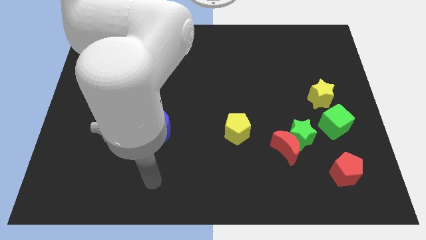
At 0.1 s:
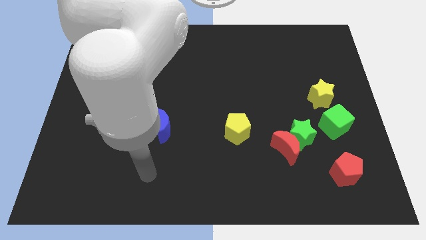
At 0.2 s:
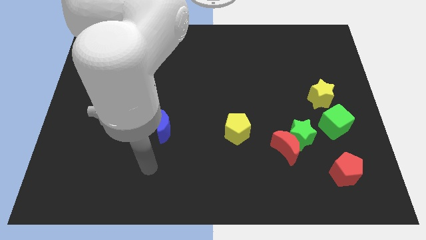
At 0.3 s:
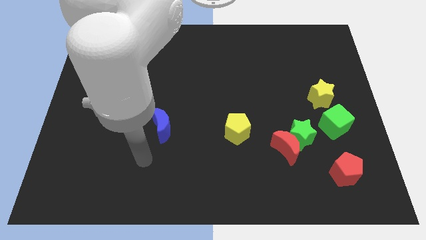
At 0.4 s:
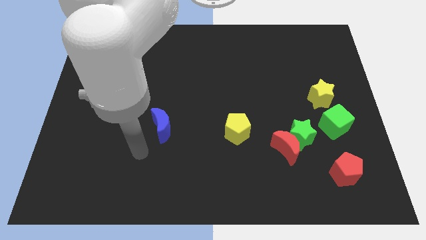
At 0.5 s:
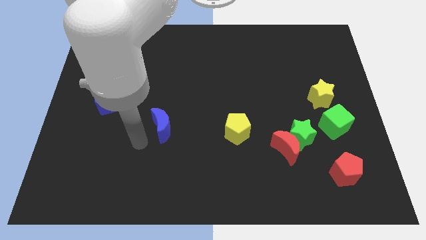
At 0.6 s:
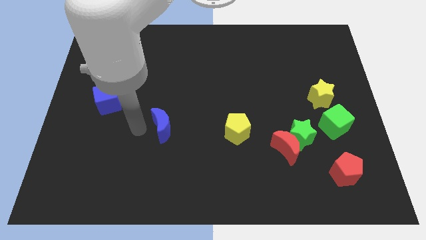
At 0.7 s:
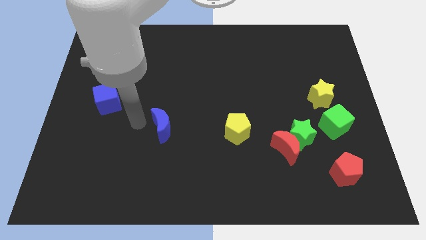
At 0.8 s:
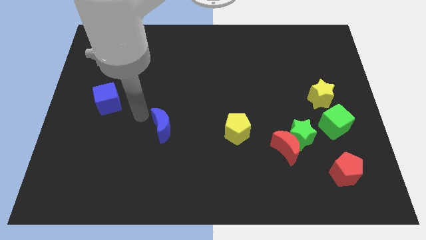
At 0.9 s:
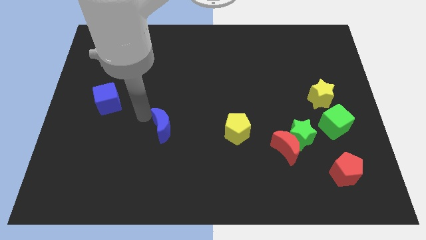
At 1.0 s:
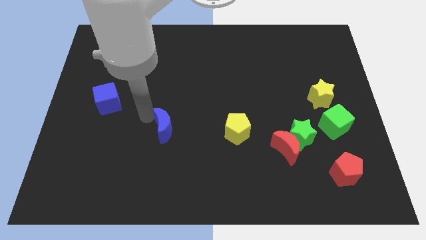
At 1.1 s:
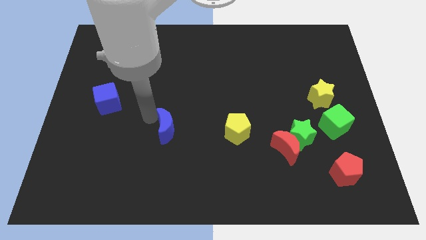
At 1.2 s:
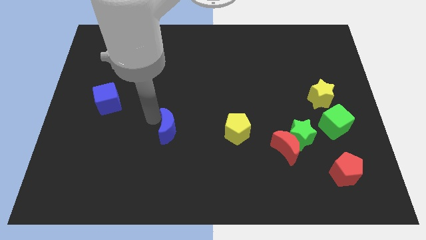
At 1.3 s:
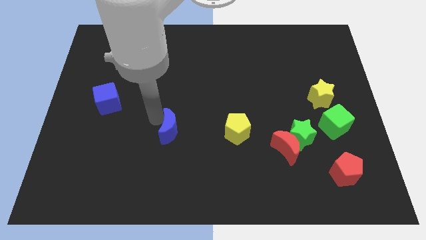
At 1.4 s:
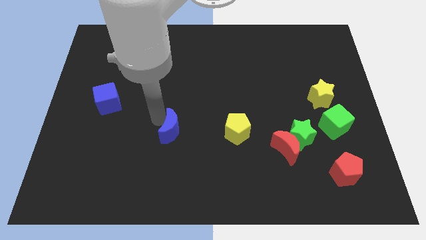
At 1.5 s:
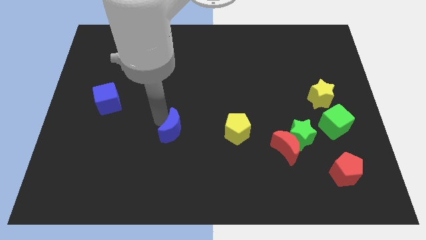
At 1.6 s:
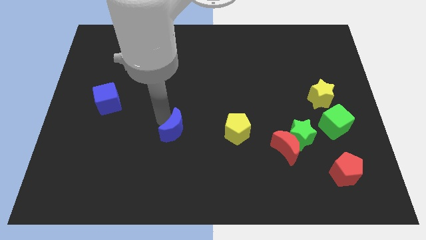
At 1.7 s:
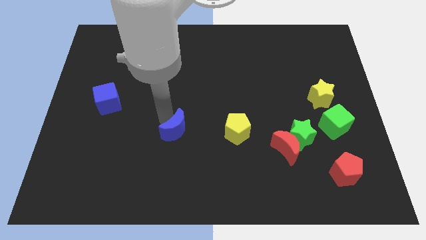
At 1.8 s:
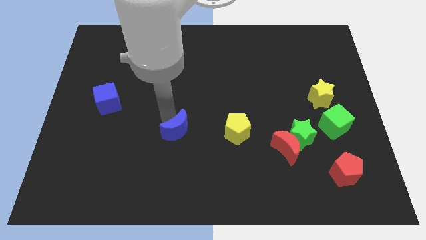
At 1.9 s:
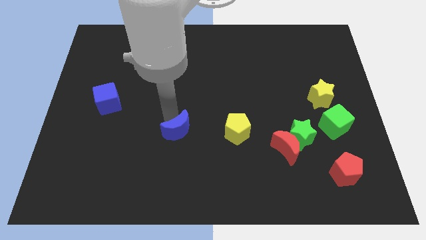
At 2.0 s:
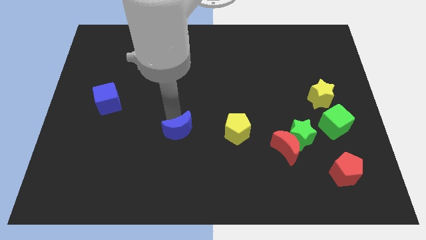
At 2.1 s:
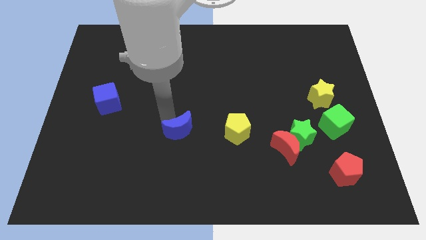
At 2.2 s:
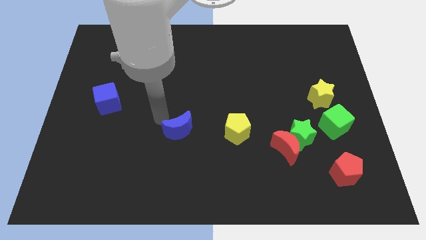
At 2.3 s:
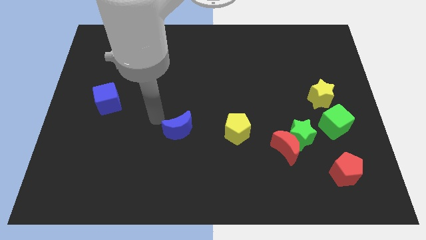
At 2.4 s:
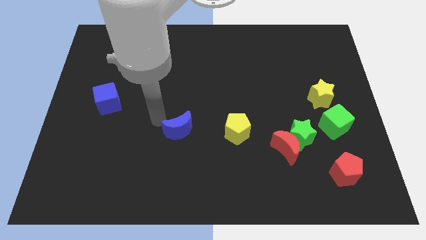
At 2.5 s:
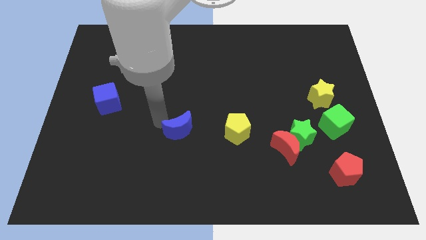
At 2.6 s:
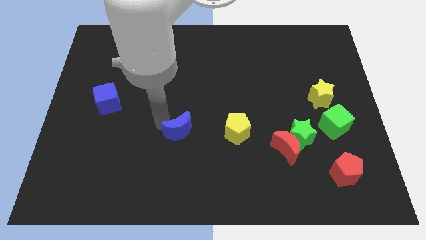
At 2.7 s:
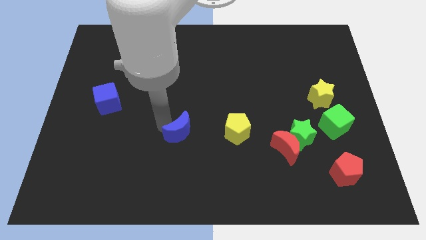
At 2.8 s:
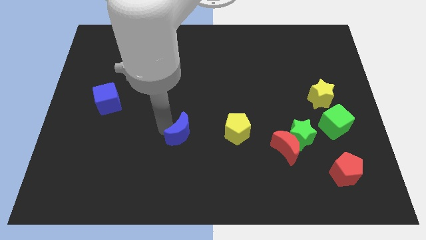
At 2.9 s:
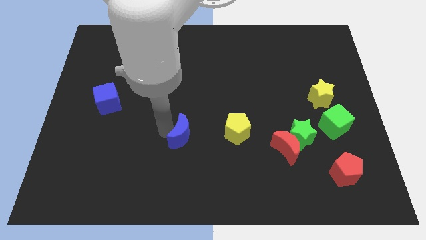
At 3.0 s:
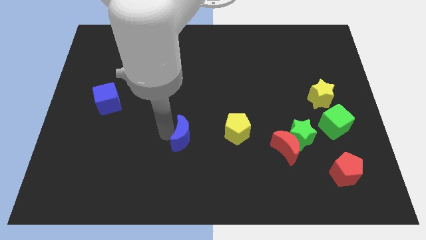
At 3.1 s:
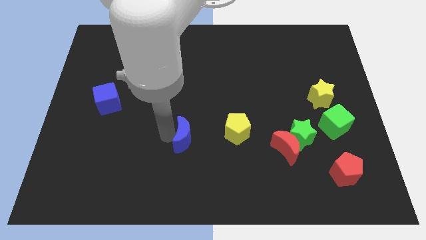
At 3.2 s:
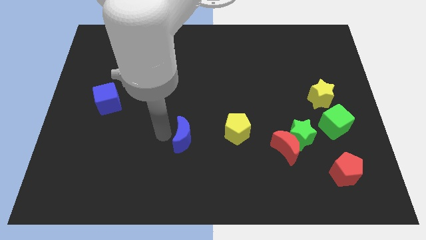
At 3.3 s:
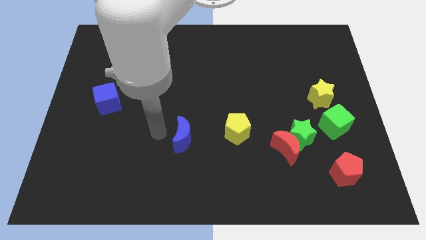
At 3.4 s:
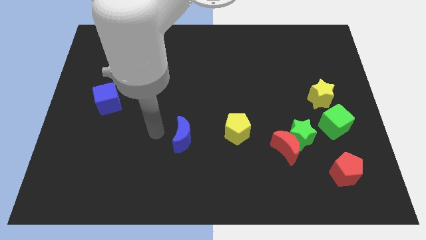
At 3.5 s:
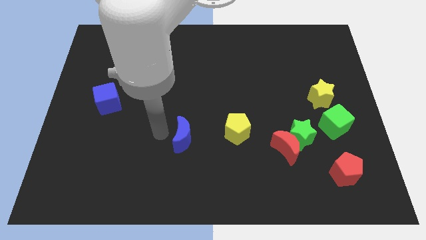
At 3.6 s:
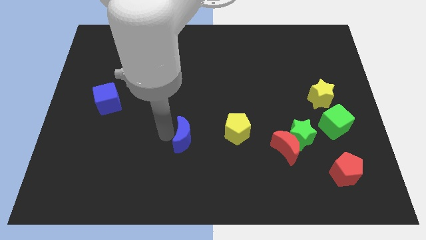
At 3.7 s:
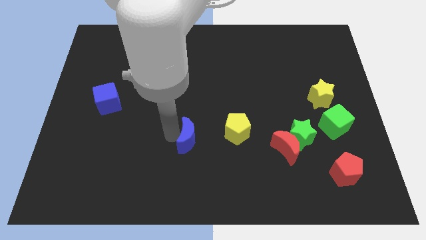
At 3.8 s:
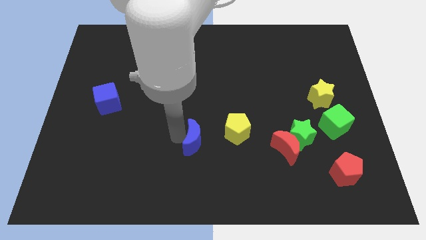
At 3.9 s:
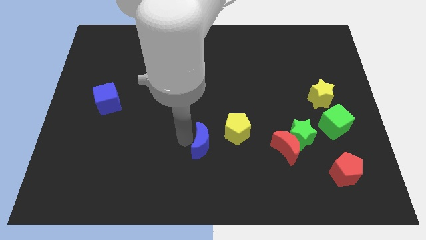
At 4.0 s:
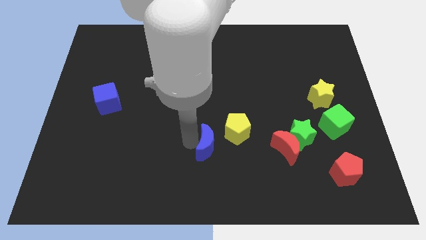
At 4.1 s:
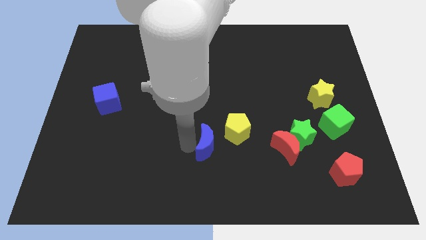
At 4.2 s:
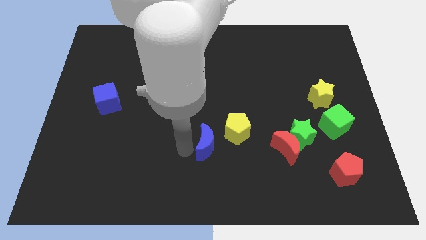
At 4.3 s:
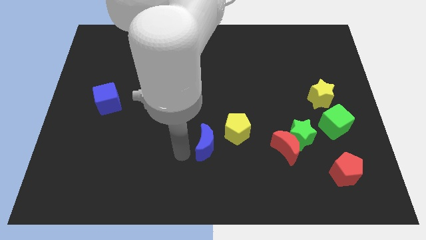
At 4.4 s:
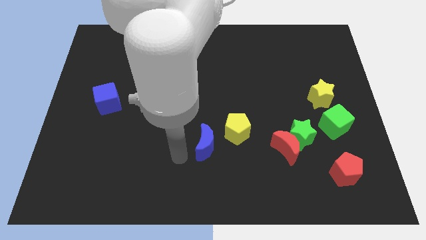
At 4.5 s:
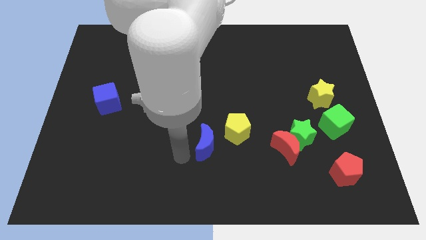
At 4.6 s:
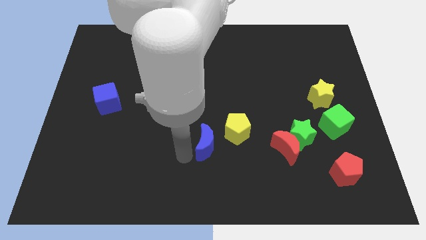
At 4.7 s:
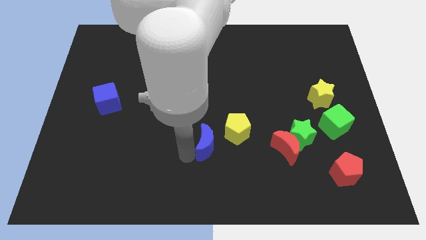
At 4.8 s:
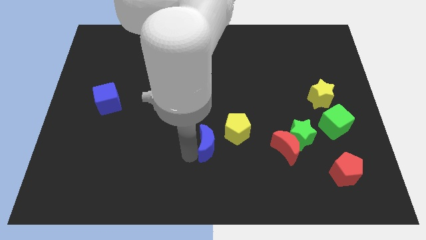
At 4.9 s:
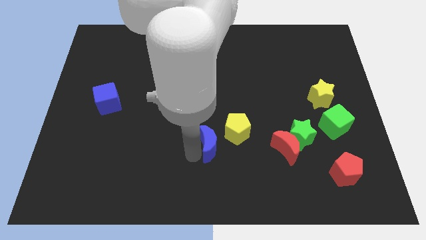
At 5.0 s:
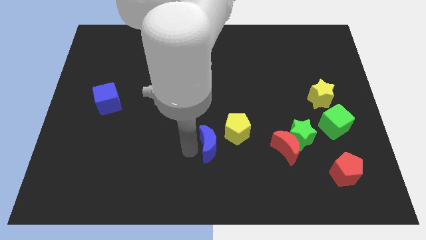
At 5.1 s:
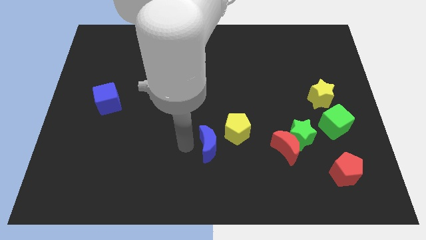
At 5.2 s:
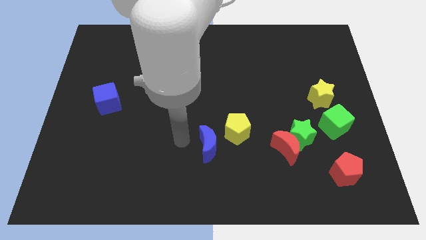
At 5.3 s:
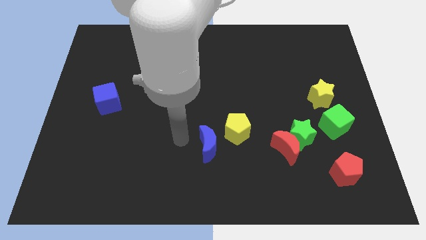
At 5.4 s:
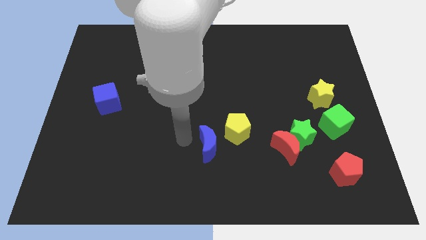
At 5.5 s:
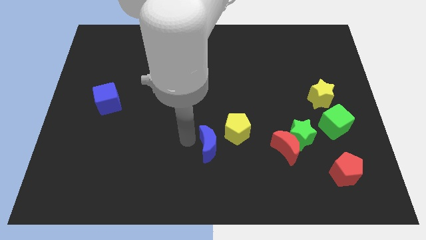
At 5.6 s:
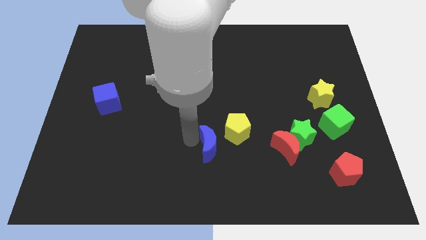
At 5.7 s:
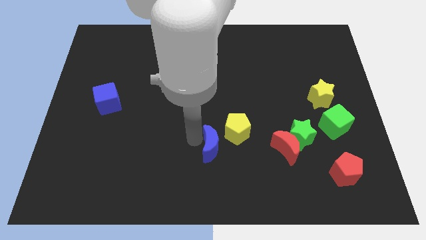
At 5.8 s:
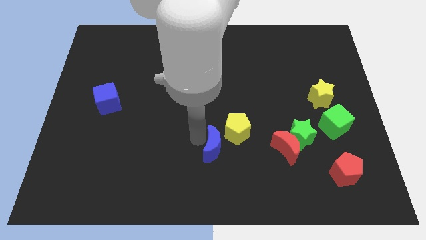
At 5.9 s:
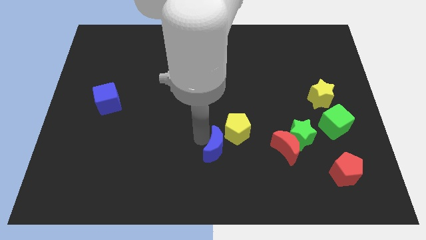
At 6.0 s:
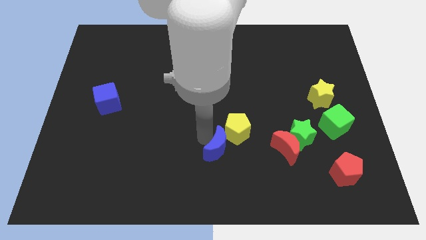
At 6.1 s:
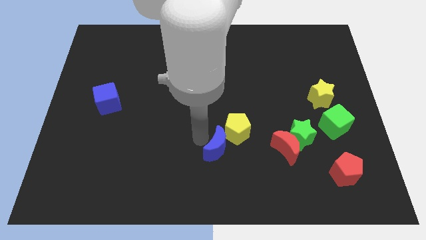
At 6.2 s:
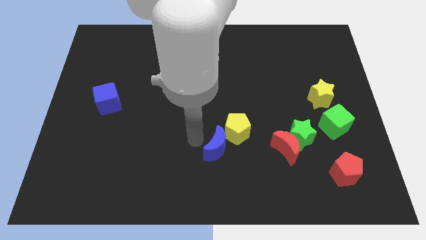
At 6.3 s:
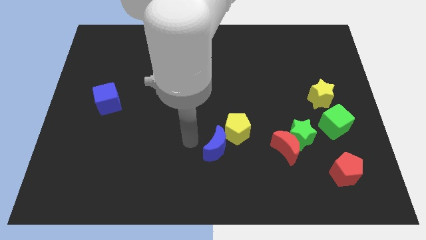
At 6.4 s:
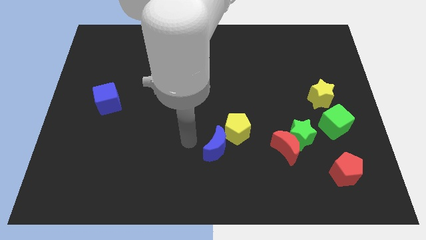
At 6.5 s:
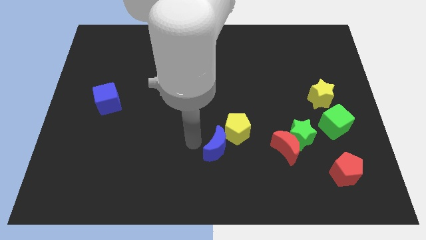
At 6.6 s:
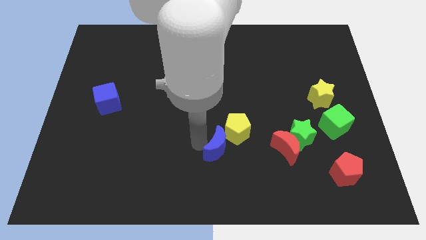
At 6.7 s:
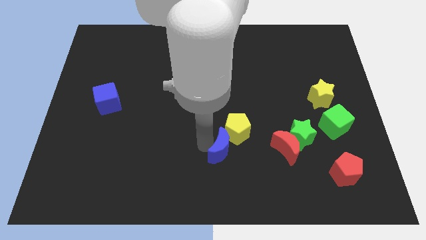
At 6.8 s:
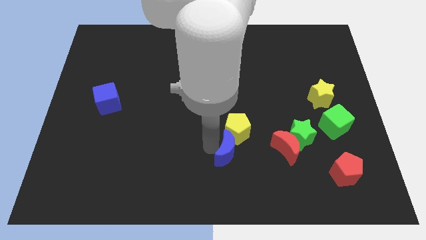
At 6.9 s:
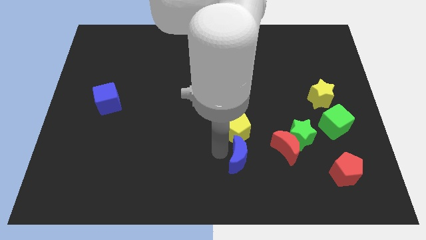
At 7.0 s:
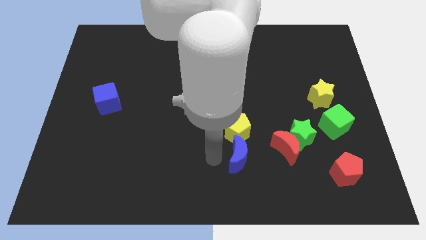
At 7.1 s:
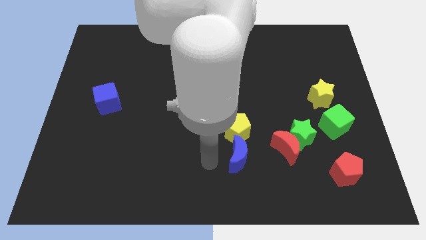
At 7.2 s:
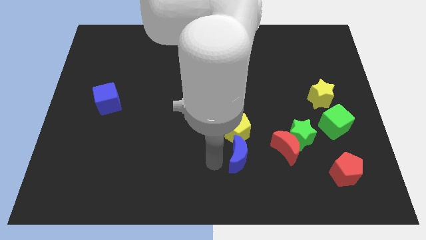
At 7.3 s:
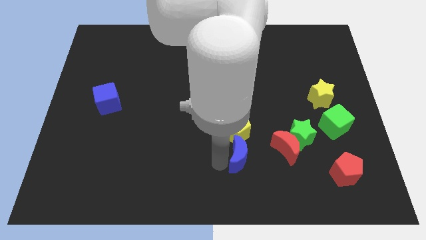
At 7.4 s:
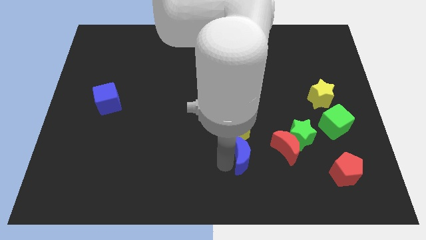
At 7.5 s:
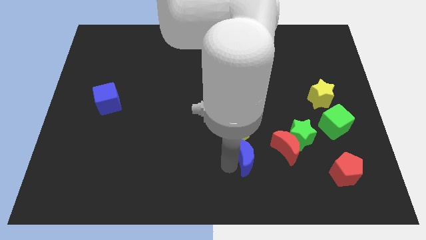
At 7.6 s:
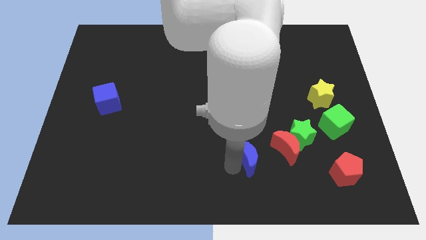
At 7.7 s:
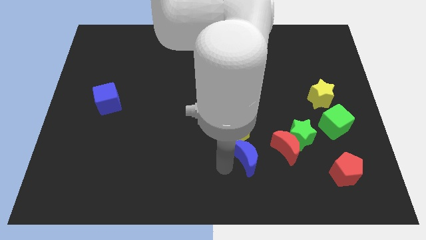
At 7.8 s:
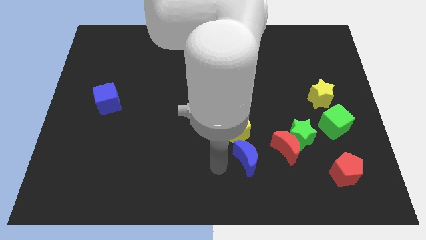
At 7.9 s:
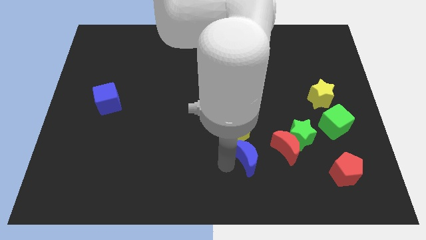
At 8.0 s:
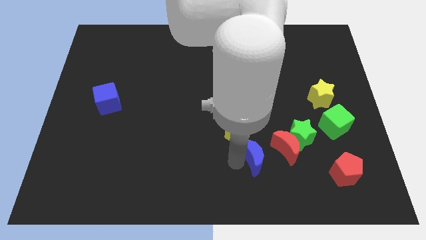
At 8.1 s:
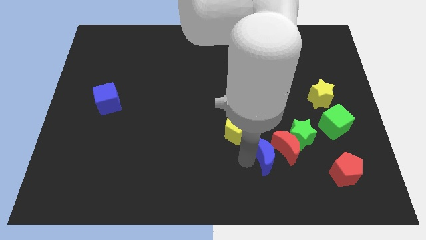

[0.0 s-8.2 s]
put the blue moon close to the red moon
